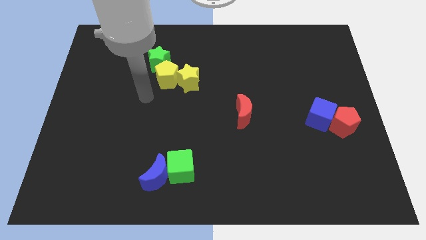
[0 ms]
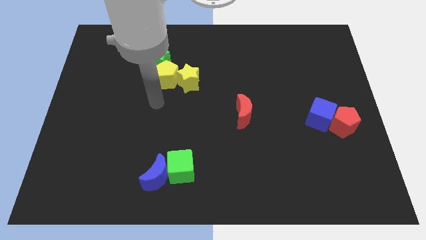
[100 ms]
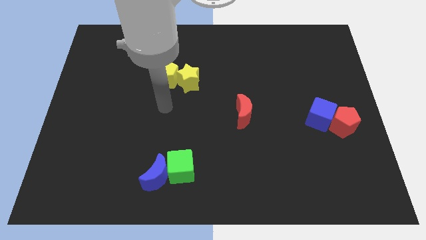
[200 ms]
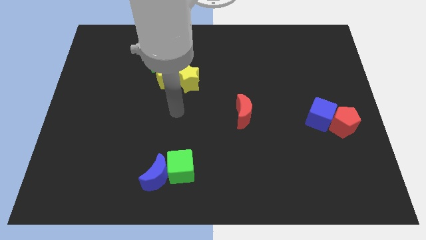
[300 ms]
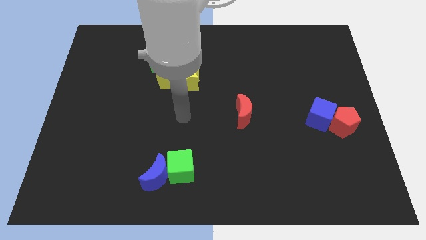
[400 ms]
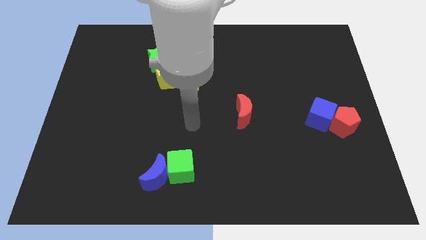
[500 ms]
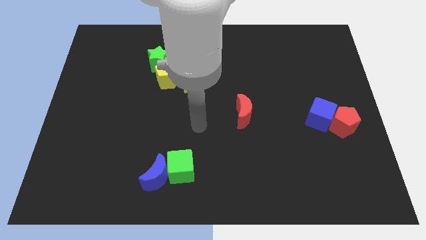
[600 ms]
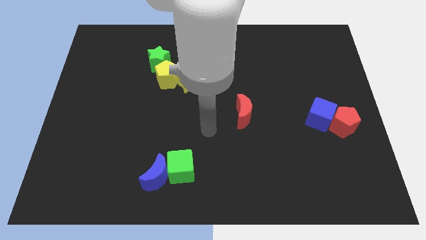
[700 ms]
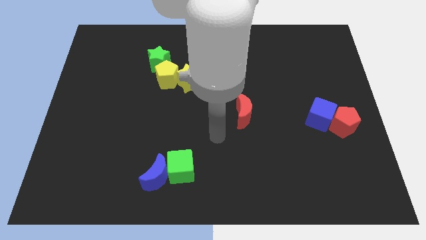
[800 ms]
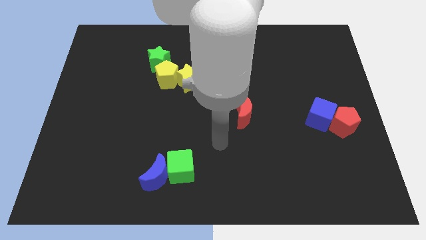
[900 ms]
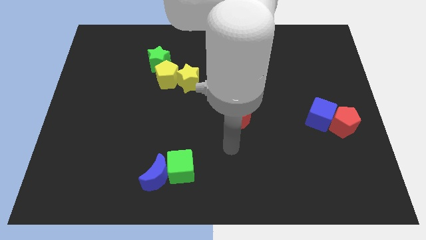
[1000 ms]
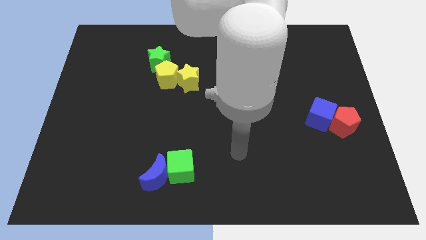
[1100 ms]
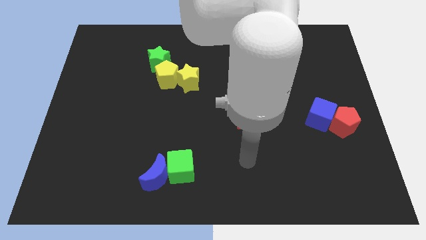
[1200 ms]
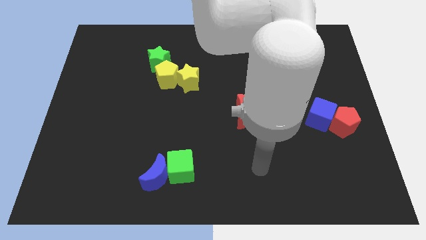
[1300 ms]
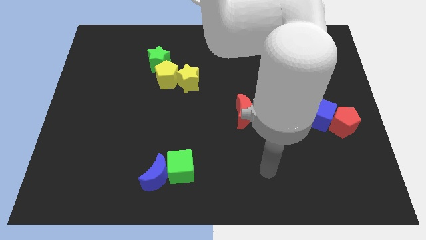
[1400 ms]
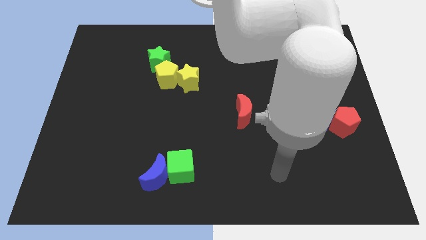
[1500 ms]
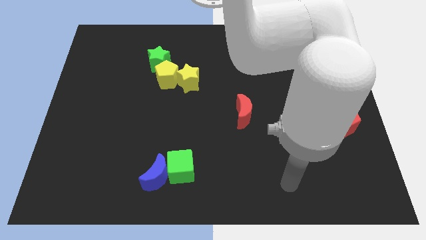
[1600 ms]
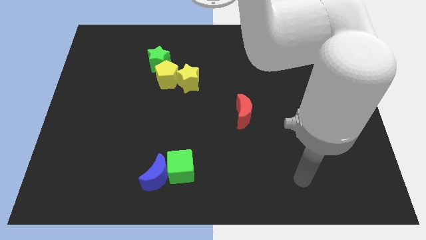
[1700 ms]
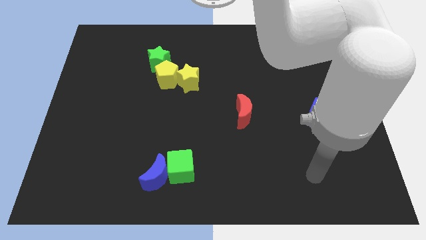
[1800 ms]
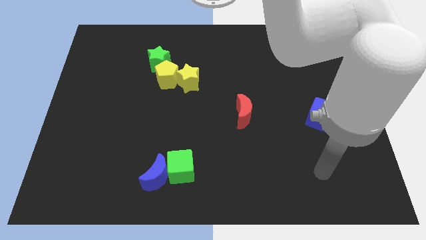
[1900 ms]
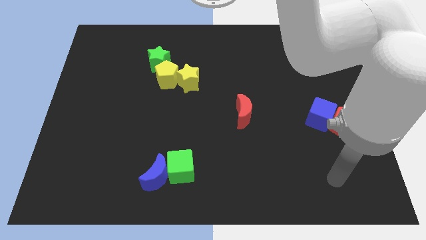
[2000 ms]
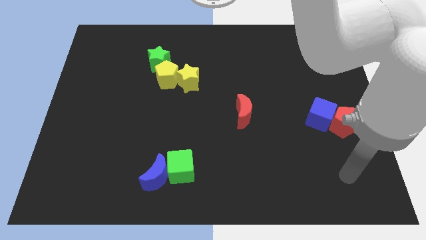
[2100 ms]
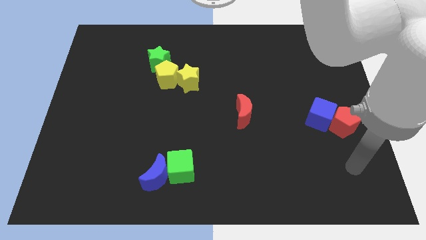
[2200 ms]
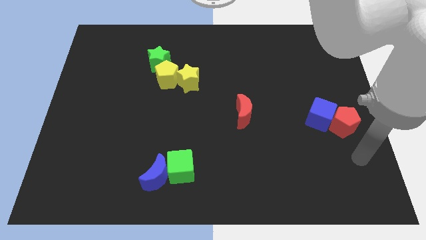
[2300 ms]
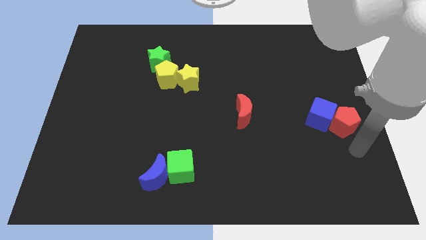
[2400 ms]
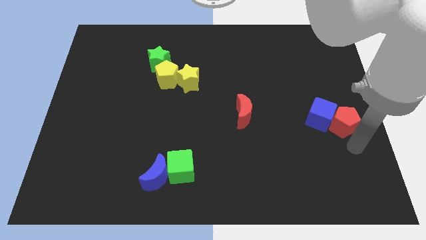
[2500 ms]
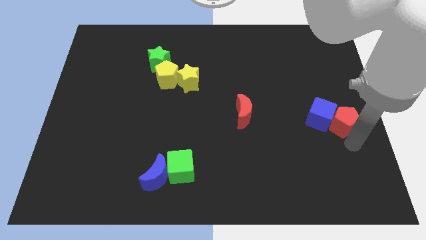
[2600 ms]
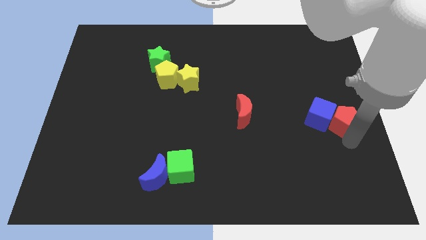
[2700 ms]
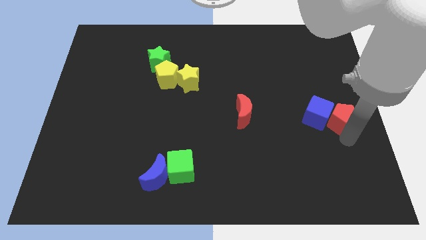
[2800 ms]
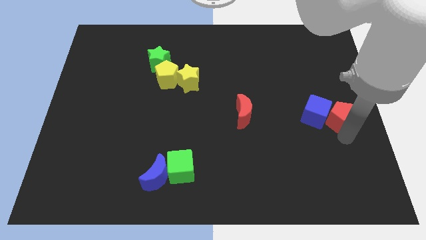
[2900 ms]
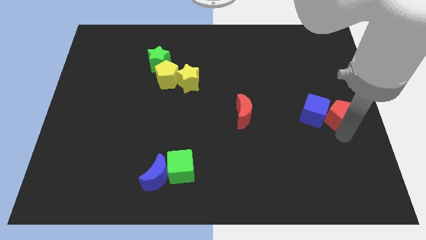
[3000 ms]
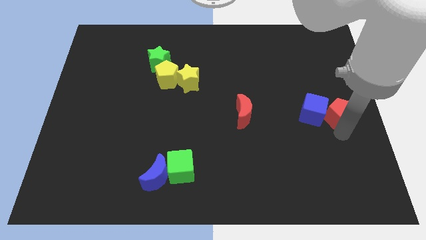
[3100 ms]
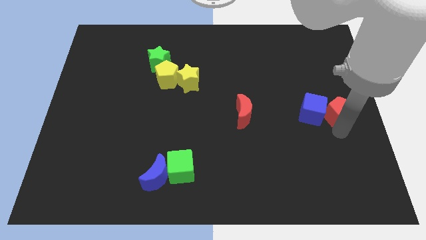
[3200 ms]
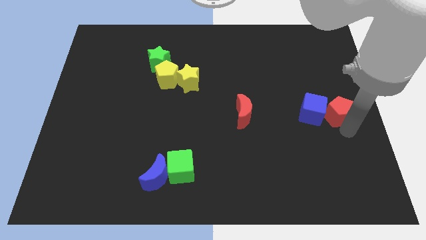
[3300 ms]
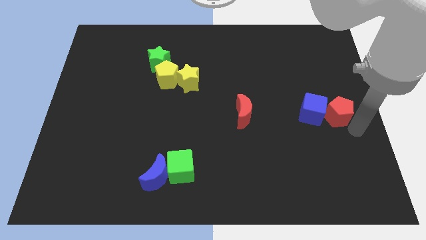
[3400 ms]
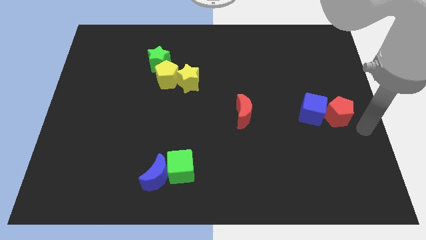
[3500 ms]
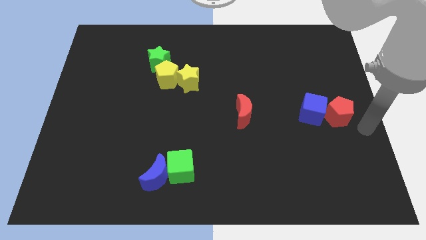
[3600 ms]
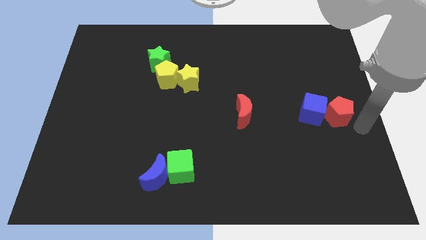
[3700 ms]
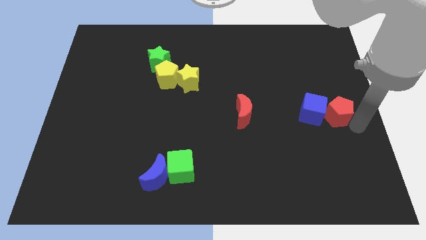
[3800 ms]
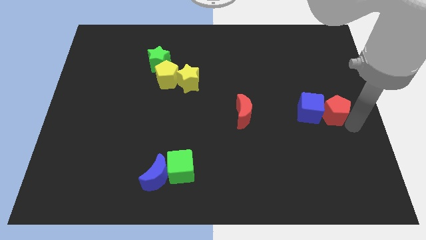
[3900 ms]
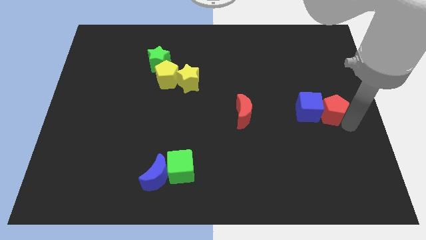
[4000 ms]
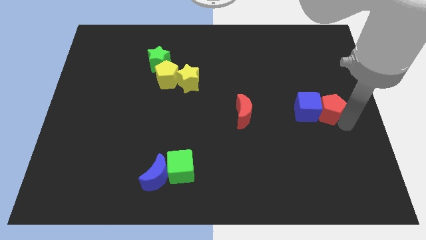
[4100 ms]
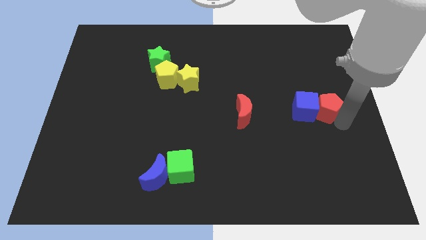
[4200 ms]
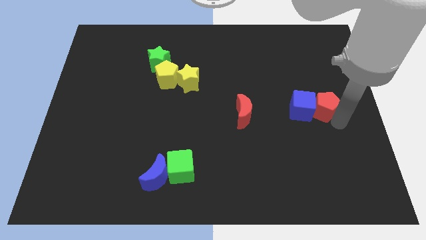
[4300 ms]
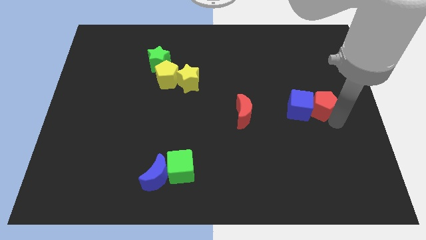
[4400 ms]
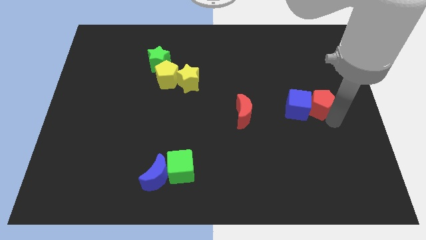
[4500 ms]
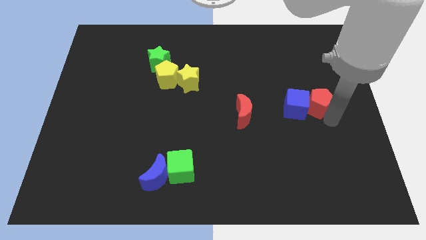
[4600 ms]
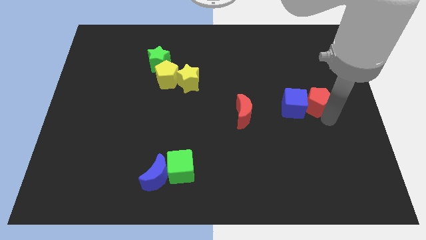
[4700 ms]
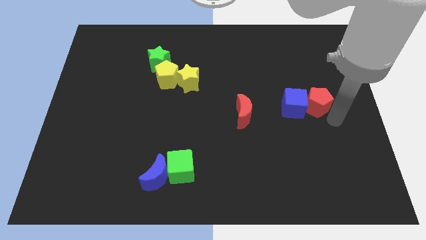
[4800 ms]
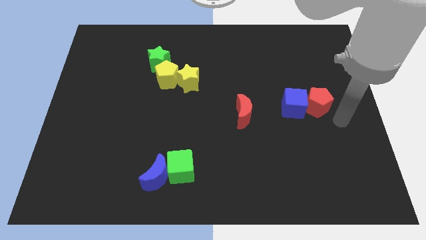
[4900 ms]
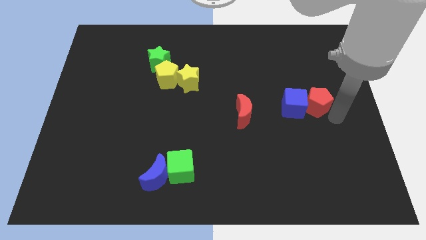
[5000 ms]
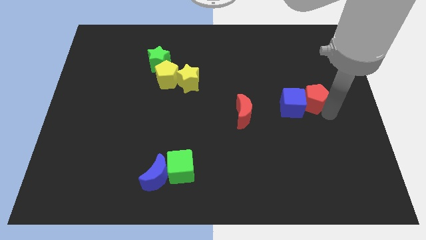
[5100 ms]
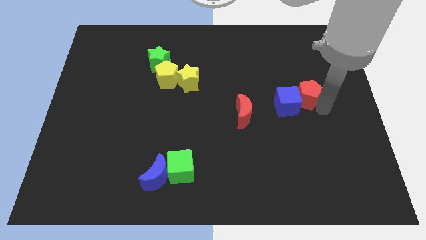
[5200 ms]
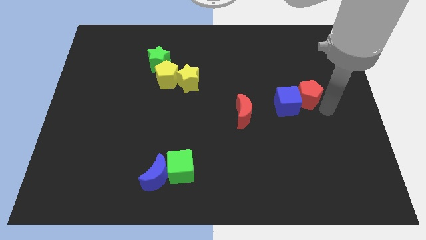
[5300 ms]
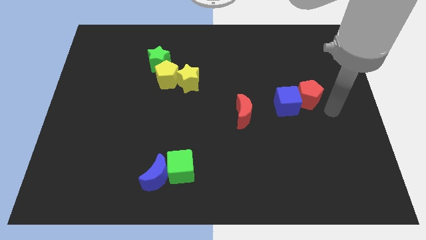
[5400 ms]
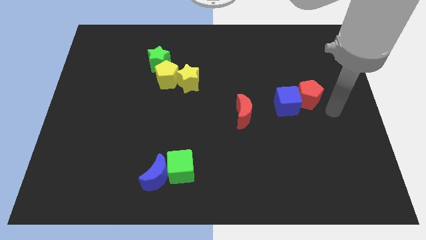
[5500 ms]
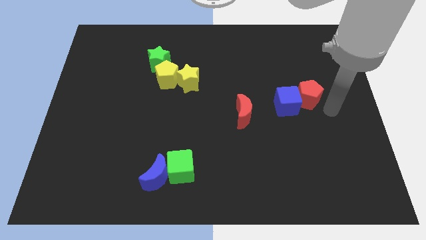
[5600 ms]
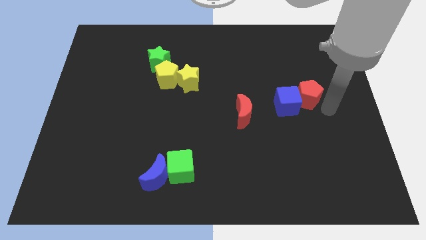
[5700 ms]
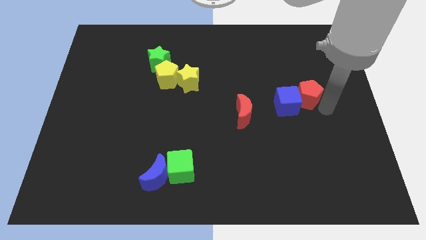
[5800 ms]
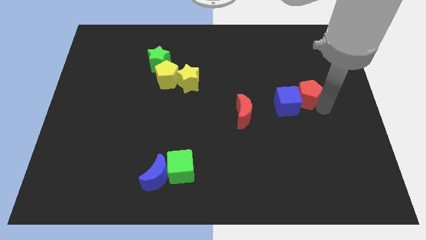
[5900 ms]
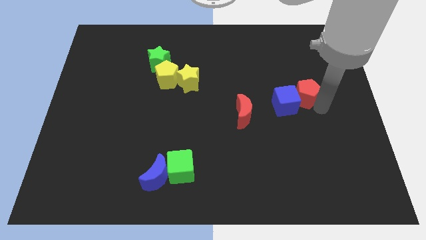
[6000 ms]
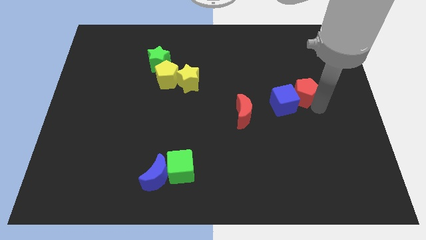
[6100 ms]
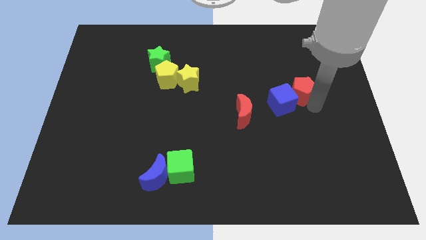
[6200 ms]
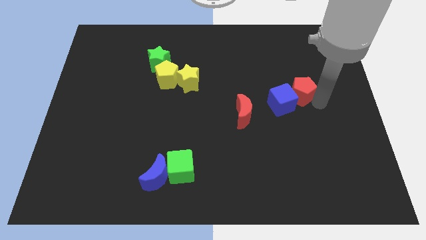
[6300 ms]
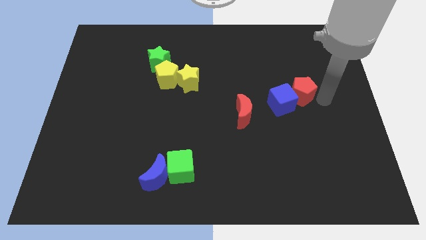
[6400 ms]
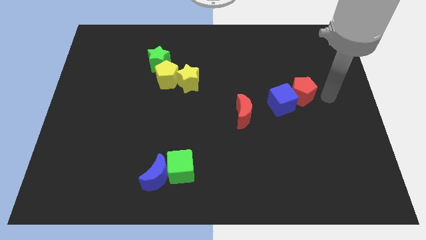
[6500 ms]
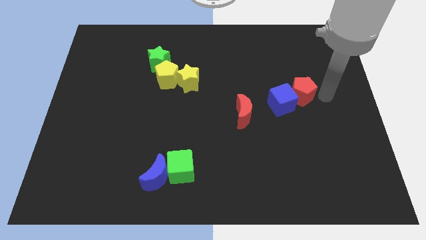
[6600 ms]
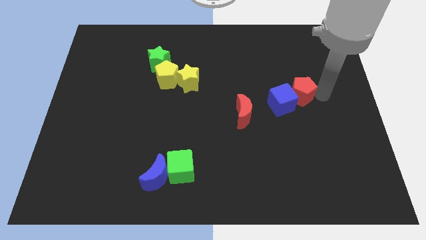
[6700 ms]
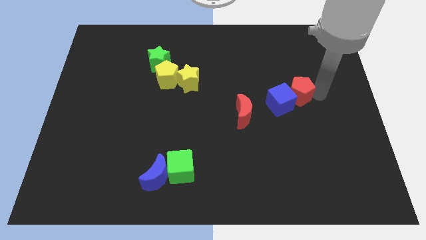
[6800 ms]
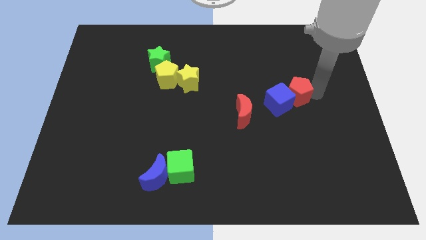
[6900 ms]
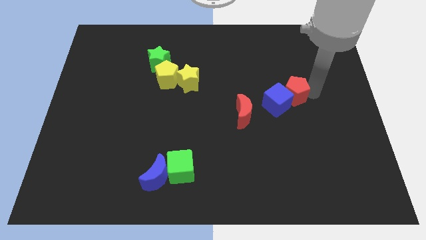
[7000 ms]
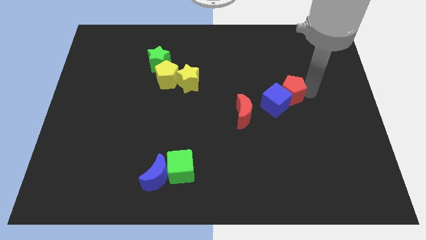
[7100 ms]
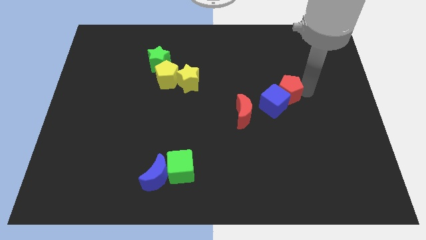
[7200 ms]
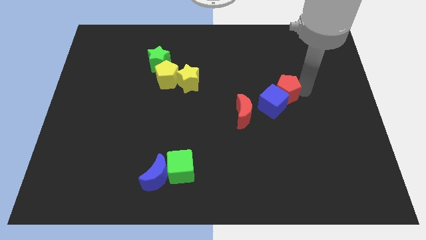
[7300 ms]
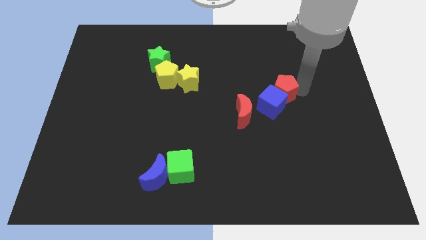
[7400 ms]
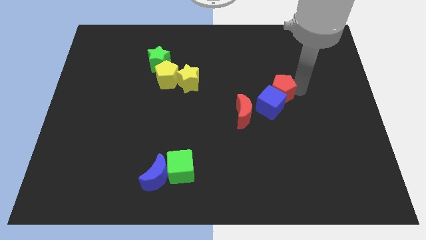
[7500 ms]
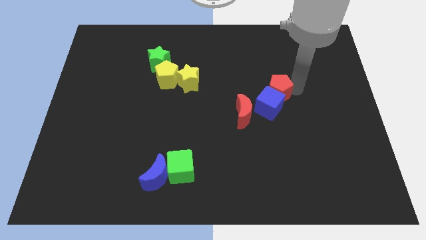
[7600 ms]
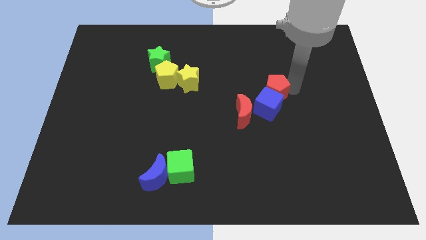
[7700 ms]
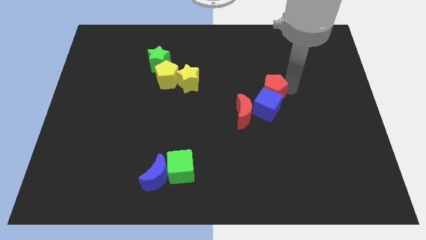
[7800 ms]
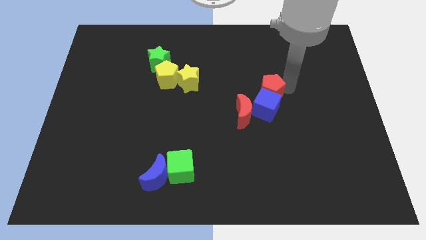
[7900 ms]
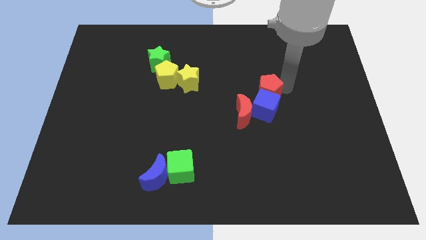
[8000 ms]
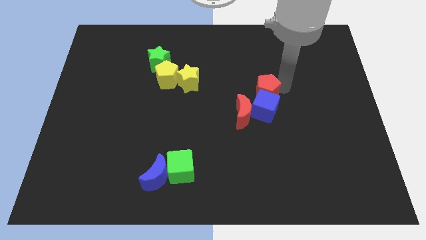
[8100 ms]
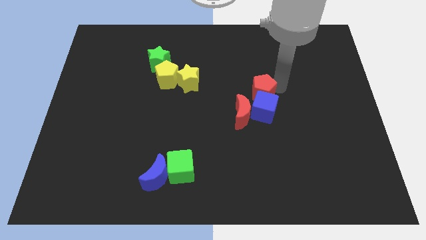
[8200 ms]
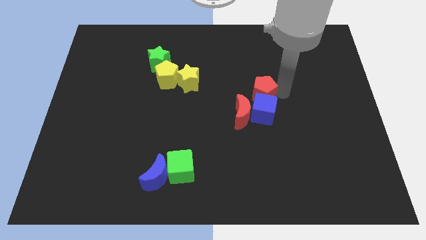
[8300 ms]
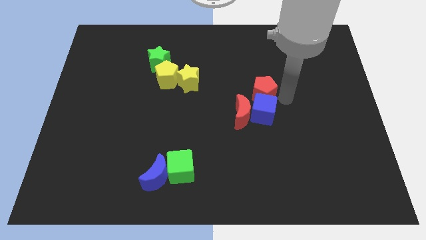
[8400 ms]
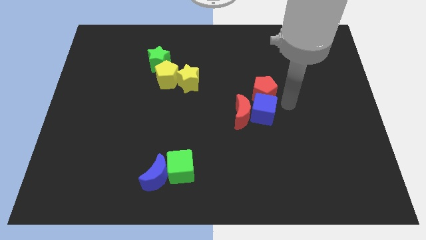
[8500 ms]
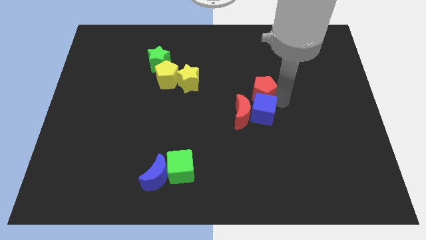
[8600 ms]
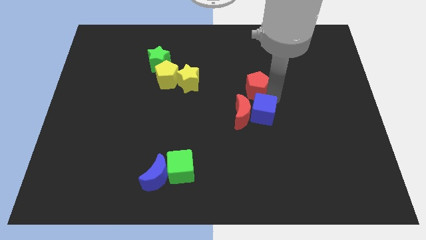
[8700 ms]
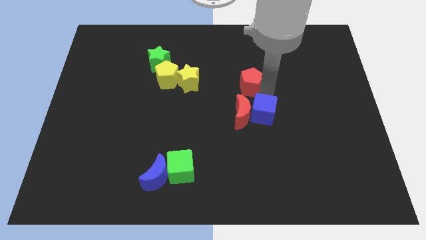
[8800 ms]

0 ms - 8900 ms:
slide the red pentagon right of the yellow star
